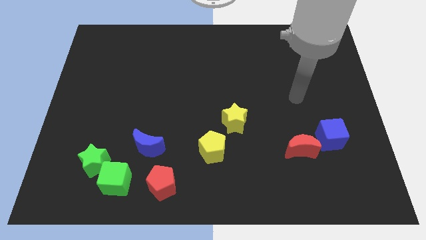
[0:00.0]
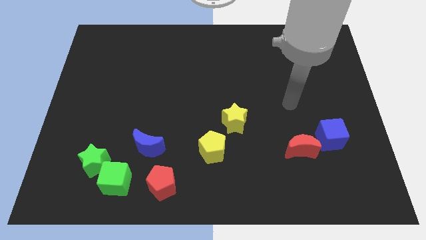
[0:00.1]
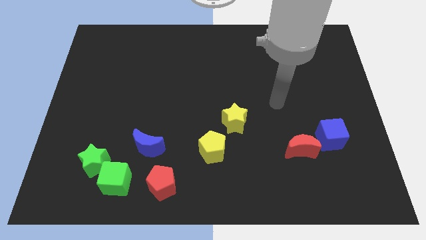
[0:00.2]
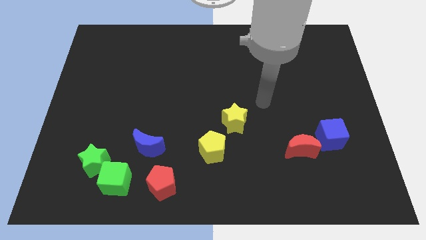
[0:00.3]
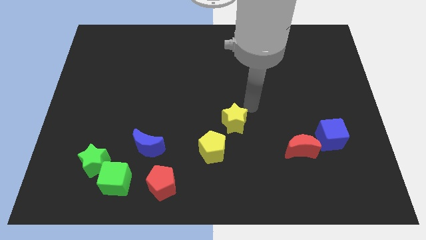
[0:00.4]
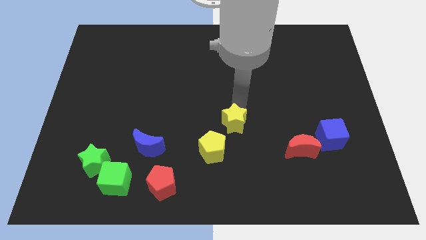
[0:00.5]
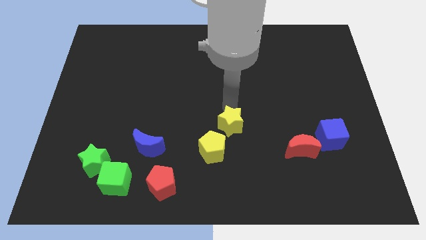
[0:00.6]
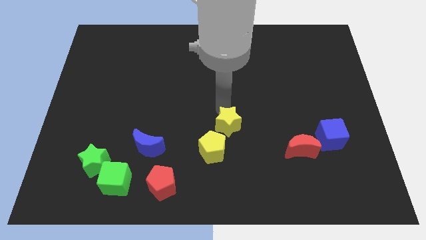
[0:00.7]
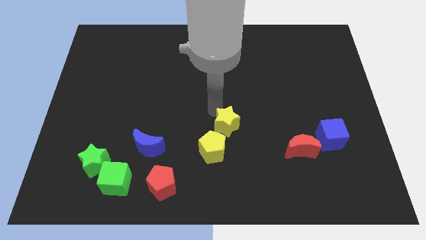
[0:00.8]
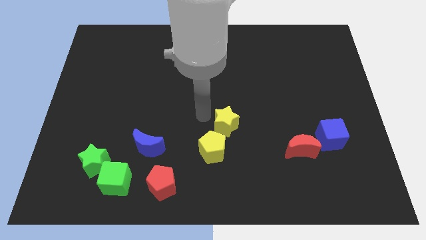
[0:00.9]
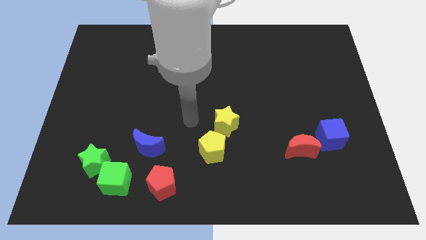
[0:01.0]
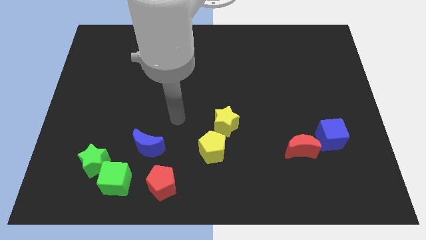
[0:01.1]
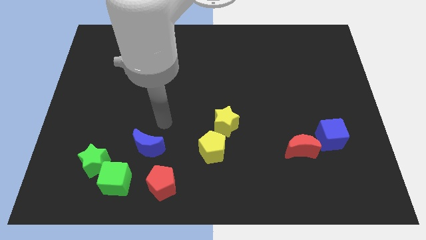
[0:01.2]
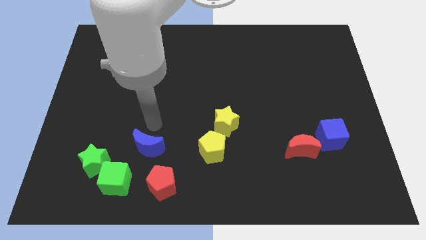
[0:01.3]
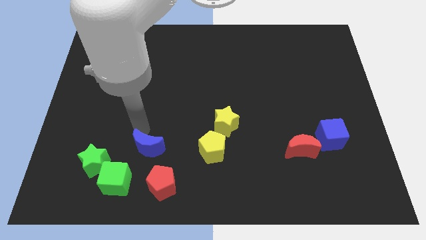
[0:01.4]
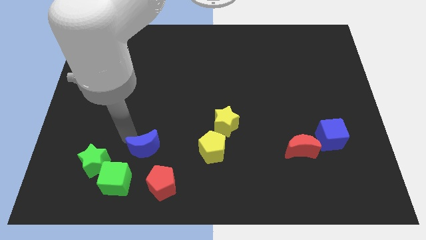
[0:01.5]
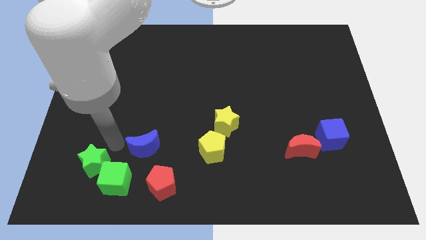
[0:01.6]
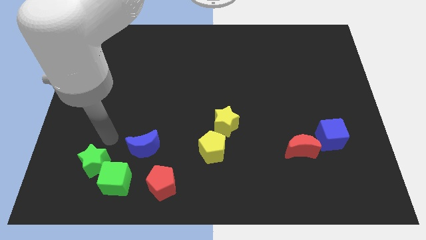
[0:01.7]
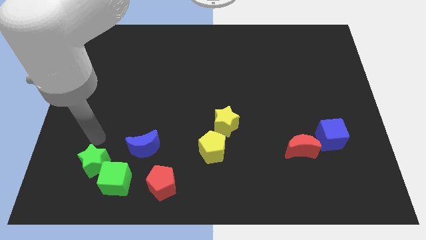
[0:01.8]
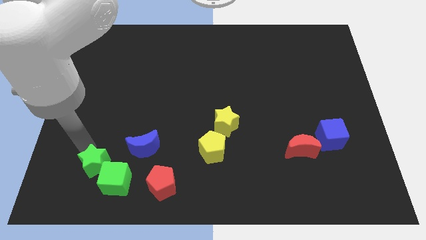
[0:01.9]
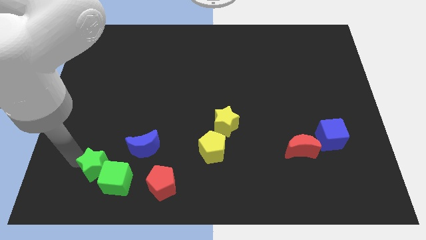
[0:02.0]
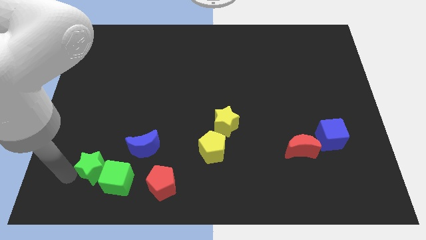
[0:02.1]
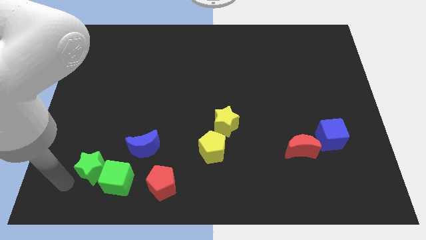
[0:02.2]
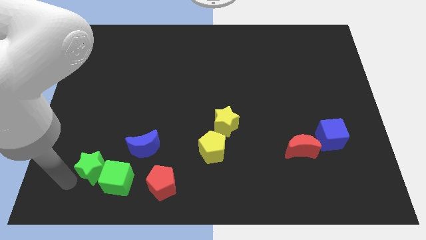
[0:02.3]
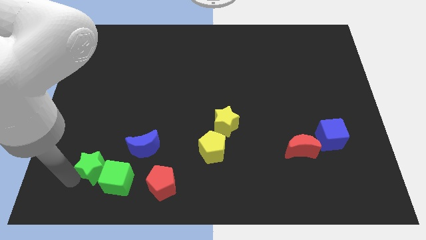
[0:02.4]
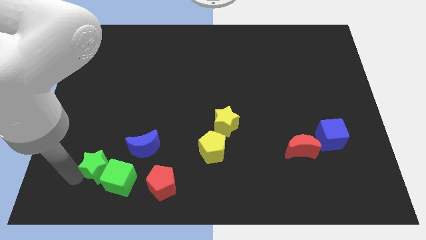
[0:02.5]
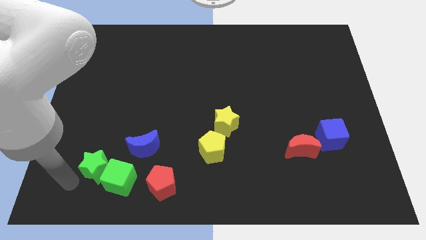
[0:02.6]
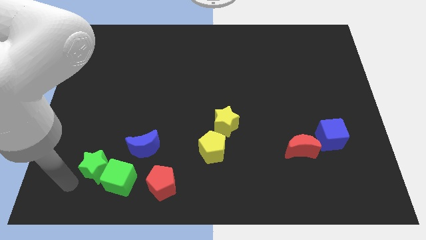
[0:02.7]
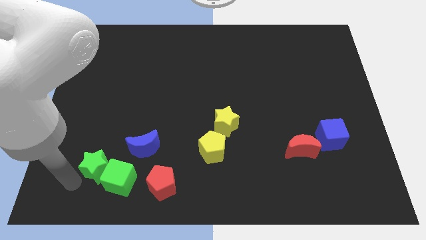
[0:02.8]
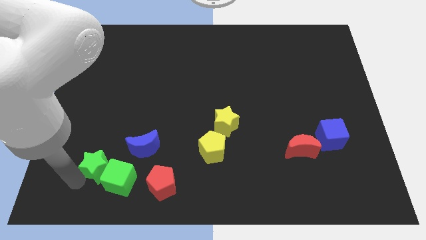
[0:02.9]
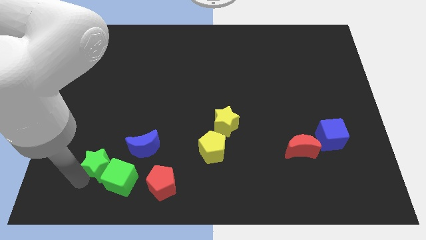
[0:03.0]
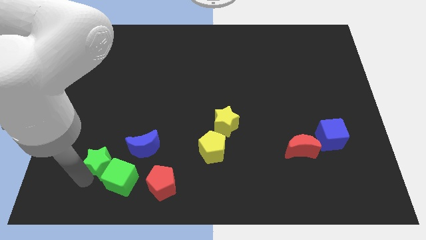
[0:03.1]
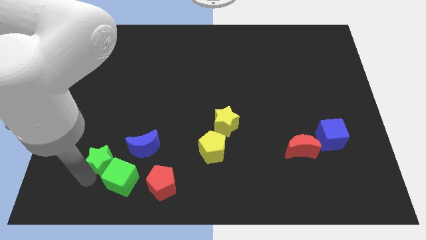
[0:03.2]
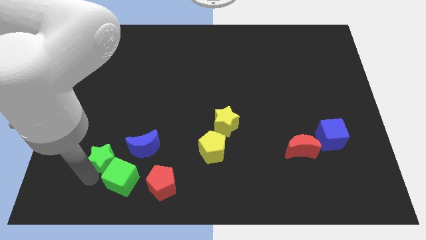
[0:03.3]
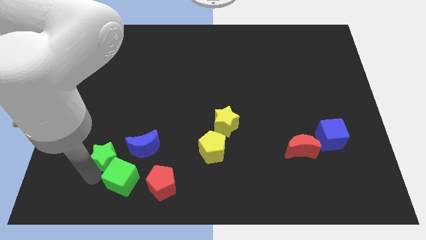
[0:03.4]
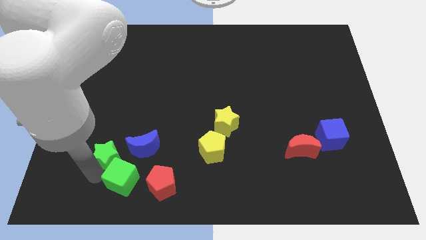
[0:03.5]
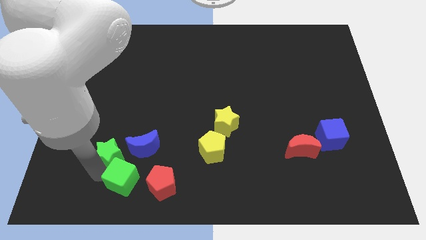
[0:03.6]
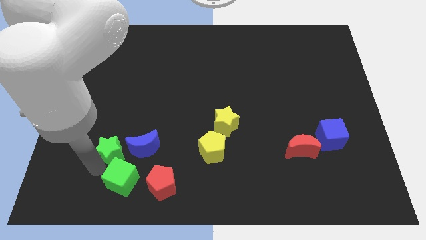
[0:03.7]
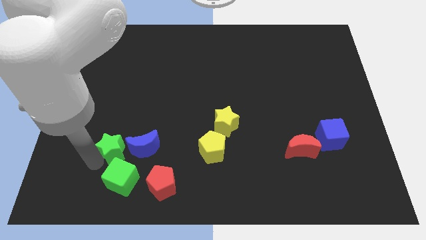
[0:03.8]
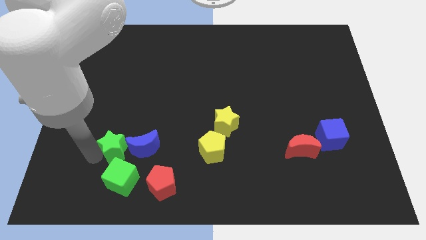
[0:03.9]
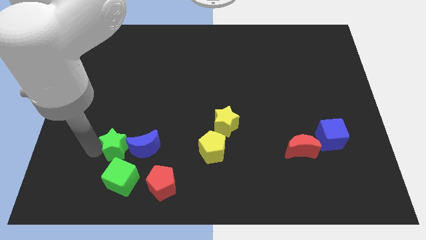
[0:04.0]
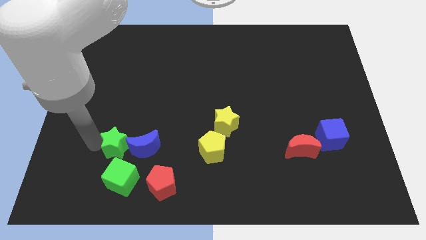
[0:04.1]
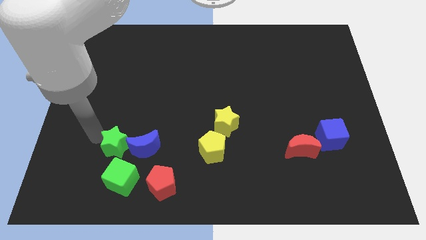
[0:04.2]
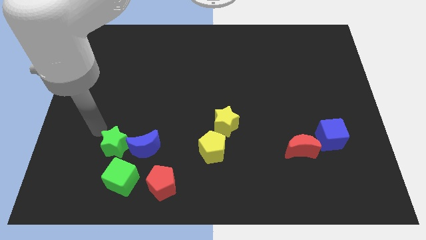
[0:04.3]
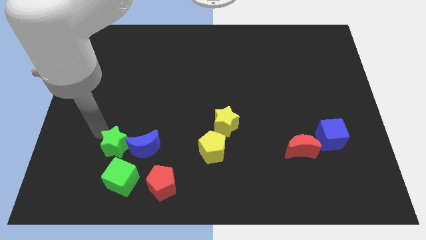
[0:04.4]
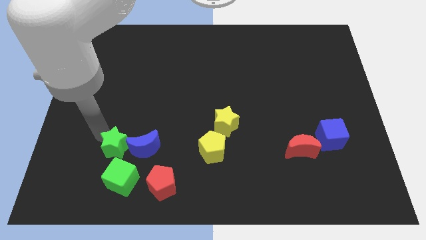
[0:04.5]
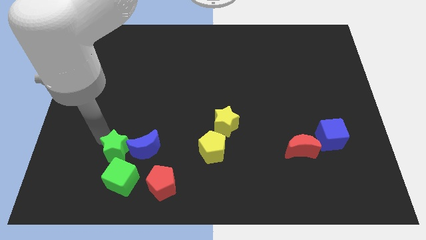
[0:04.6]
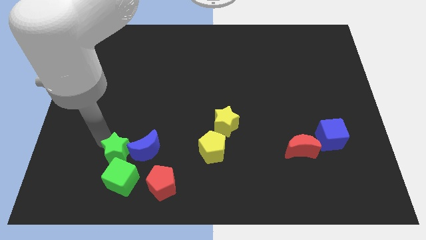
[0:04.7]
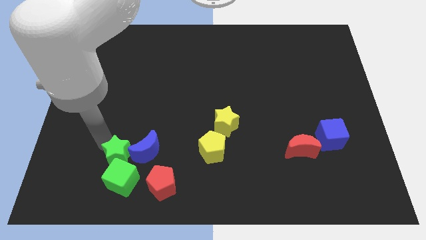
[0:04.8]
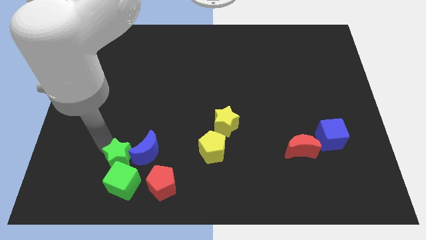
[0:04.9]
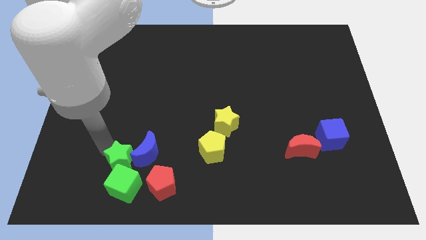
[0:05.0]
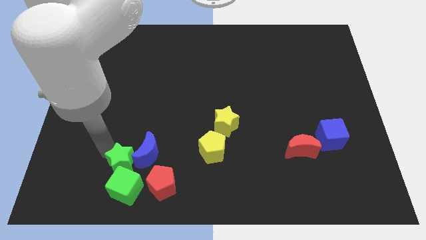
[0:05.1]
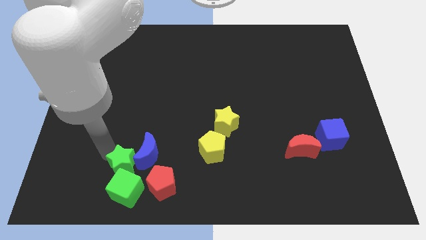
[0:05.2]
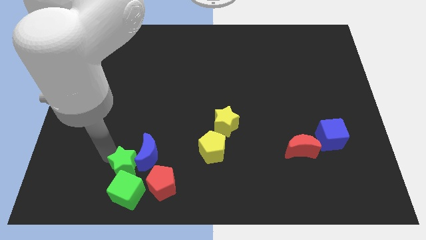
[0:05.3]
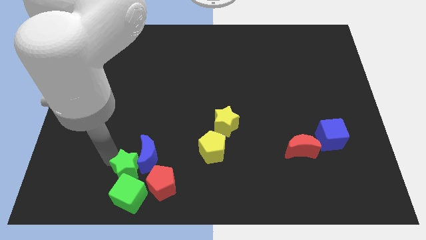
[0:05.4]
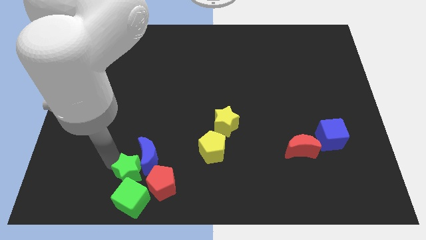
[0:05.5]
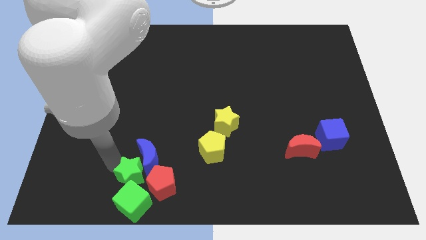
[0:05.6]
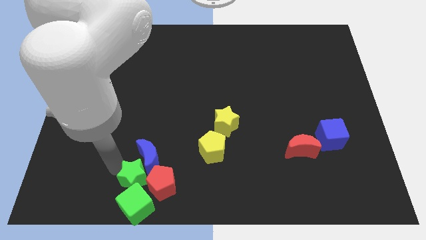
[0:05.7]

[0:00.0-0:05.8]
push the green star to the red pentagon

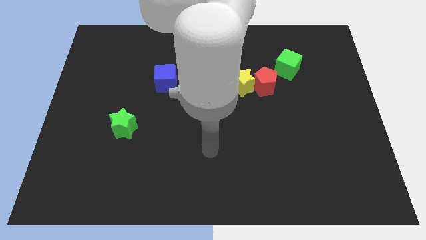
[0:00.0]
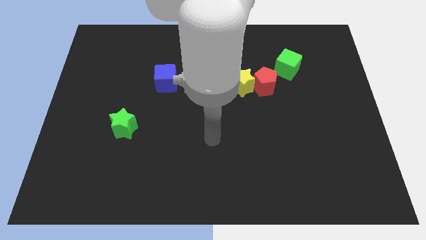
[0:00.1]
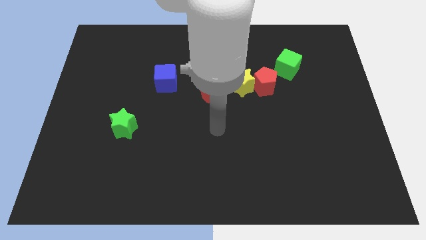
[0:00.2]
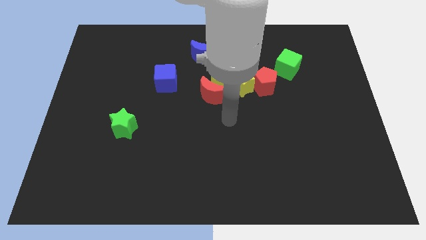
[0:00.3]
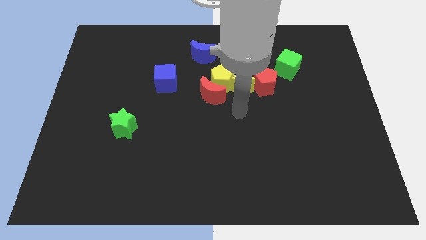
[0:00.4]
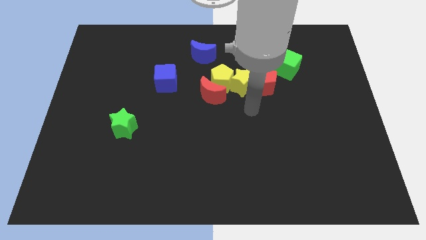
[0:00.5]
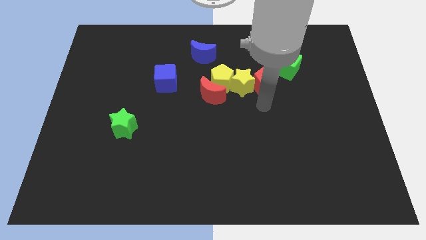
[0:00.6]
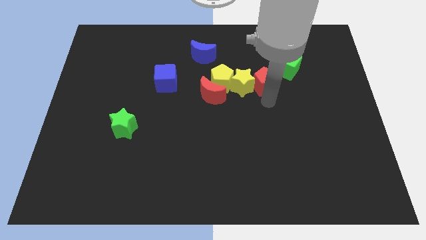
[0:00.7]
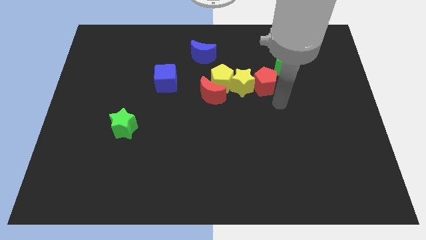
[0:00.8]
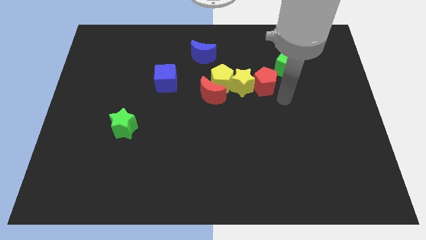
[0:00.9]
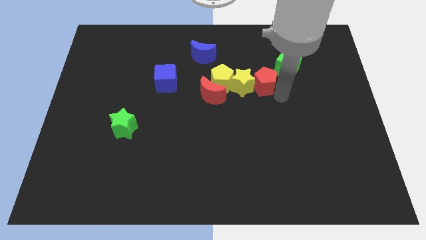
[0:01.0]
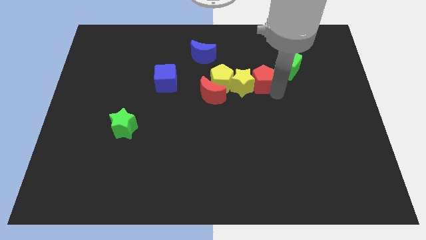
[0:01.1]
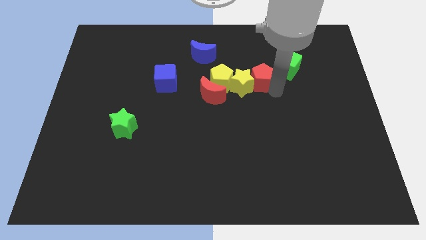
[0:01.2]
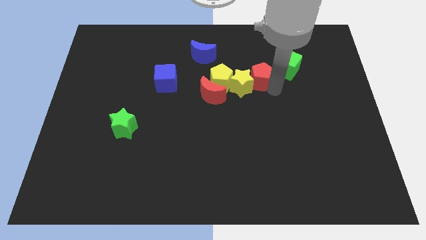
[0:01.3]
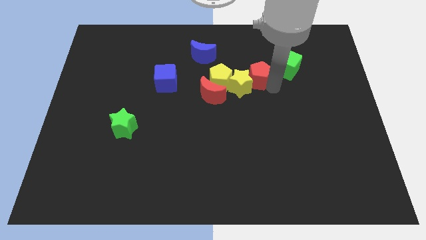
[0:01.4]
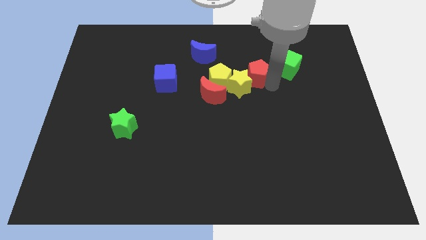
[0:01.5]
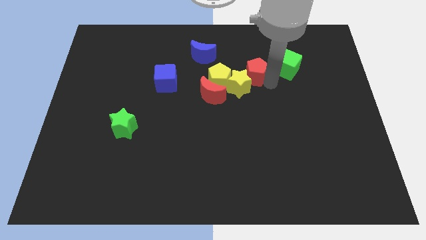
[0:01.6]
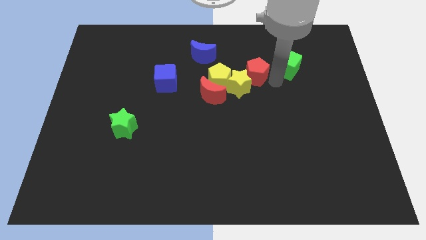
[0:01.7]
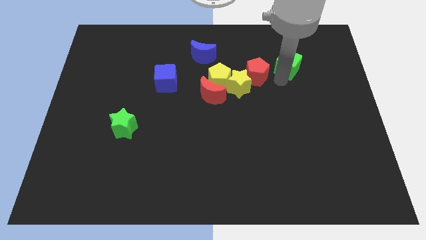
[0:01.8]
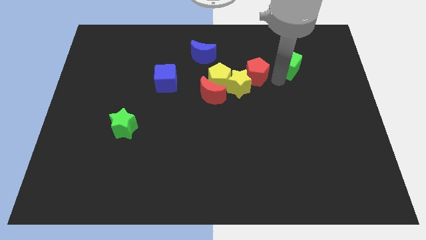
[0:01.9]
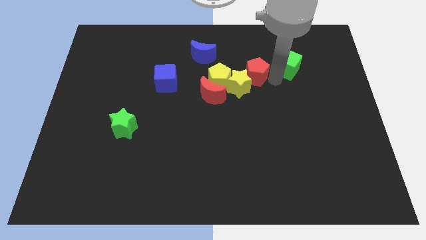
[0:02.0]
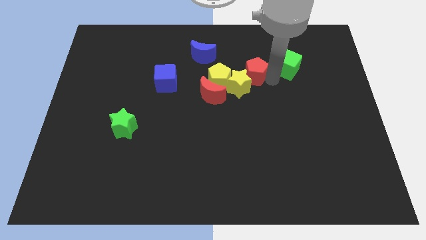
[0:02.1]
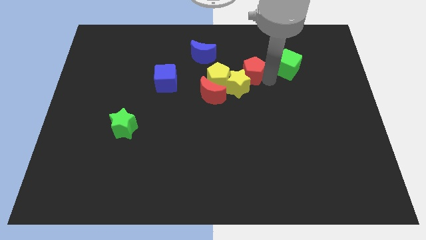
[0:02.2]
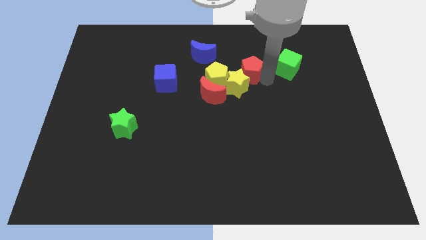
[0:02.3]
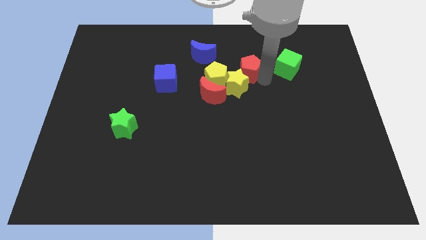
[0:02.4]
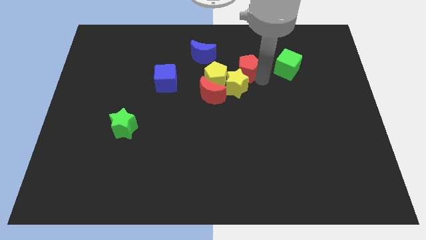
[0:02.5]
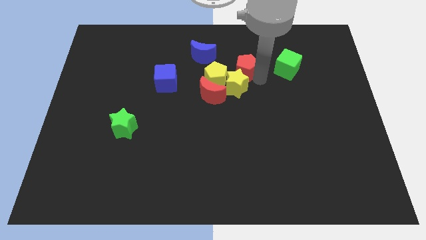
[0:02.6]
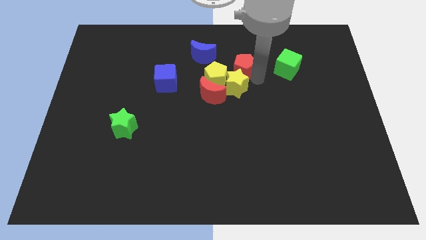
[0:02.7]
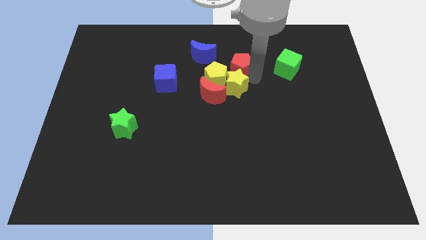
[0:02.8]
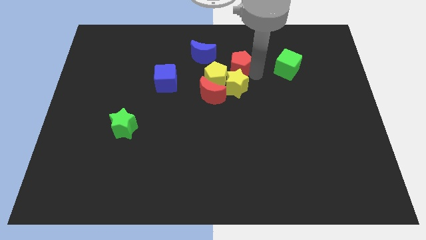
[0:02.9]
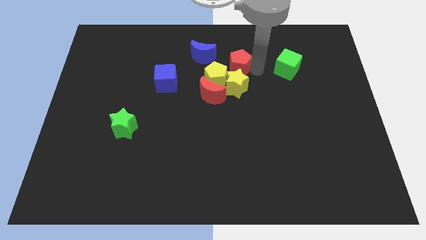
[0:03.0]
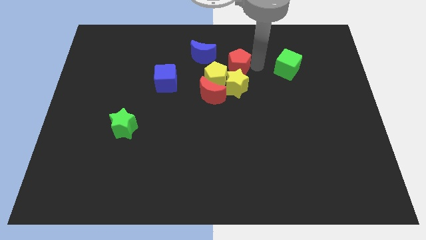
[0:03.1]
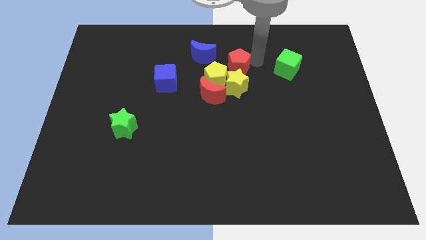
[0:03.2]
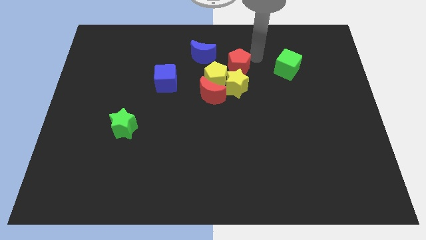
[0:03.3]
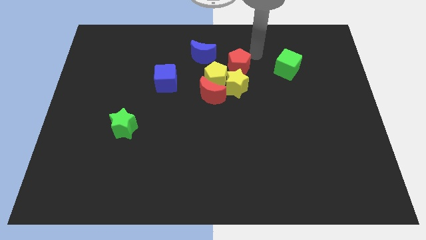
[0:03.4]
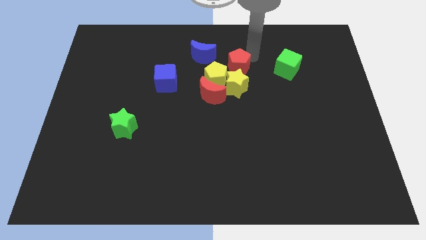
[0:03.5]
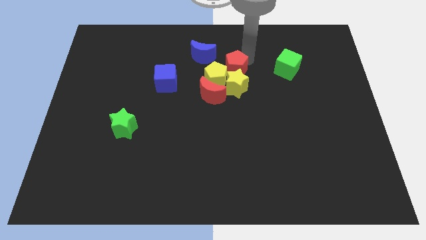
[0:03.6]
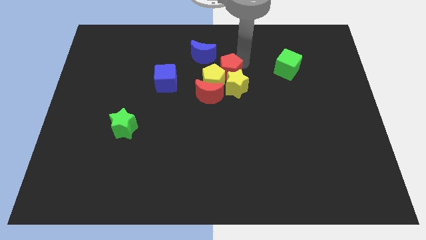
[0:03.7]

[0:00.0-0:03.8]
put the red pentagon to the yellow pentagon
